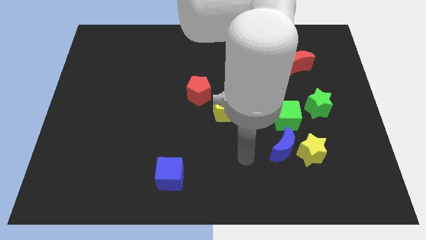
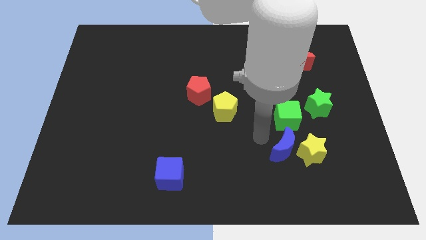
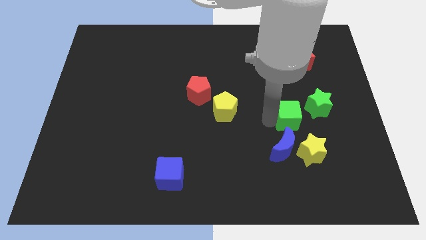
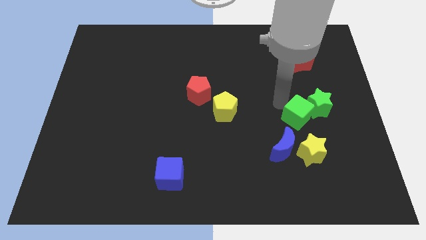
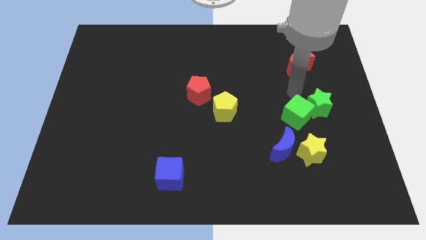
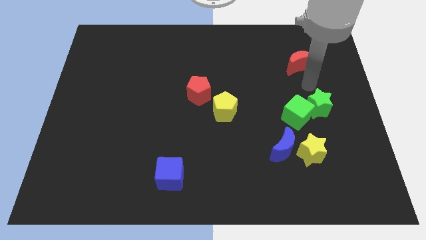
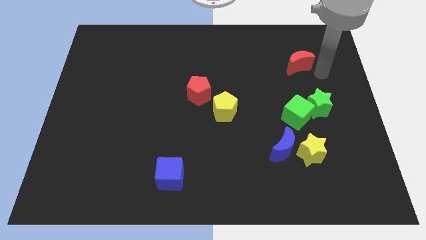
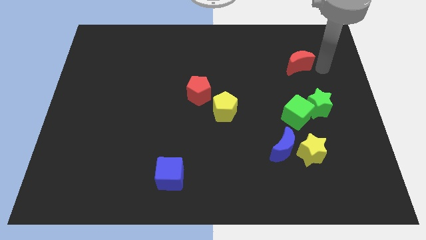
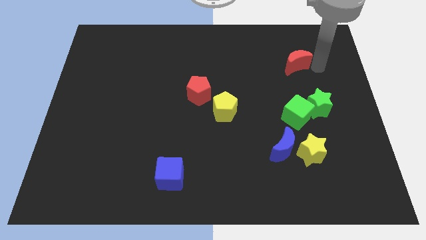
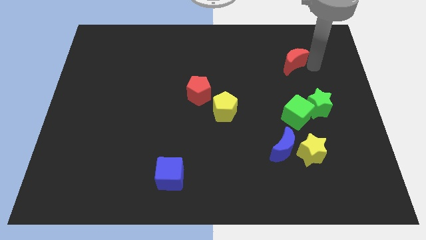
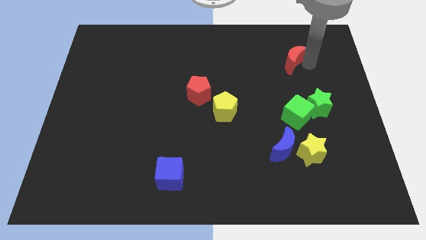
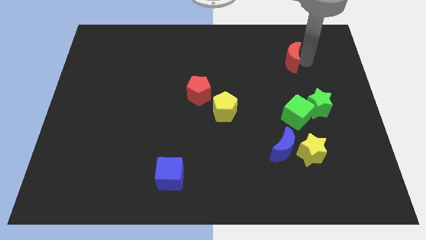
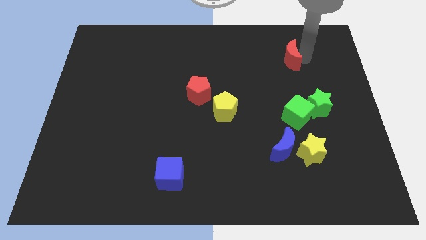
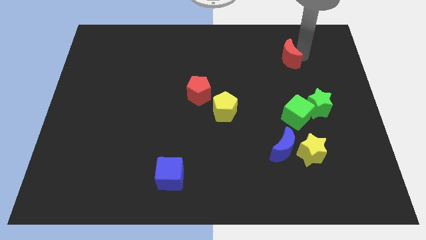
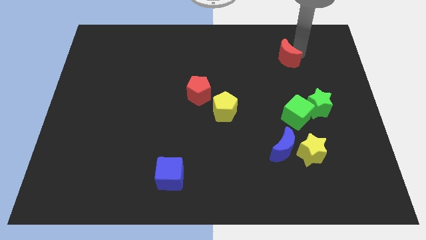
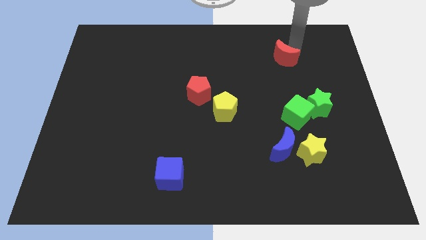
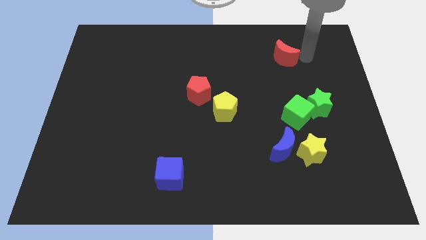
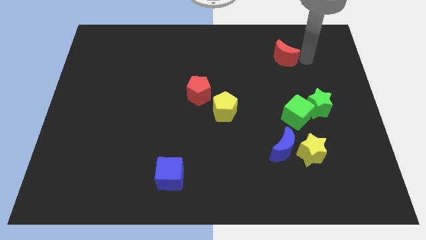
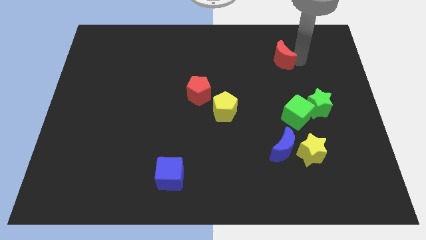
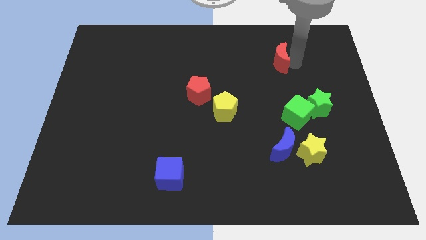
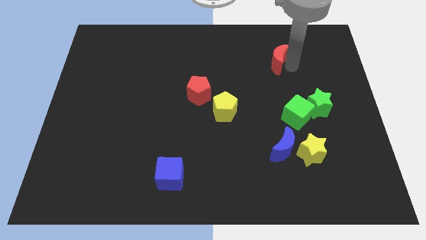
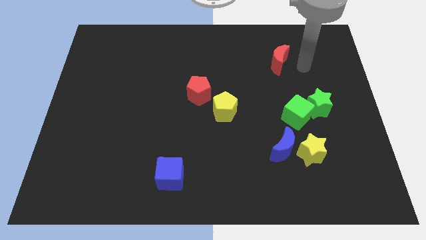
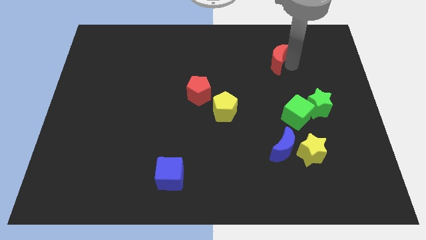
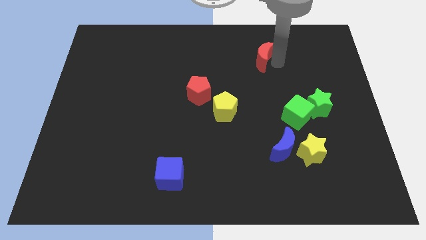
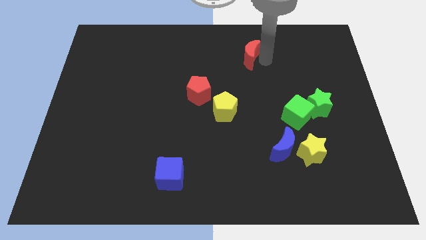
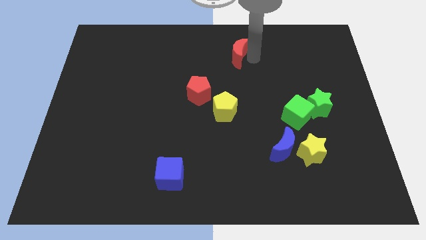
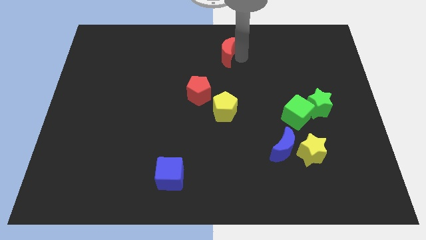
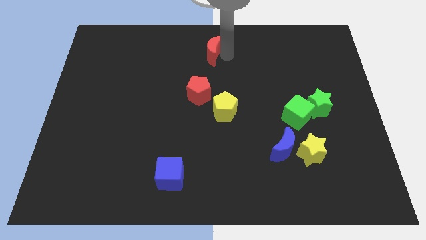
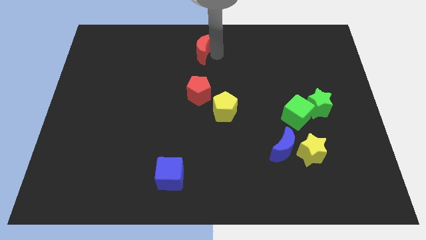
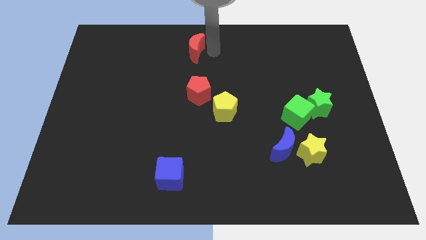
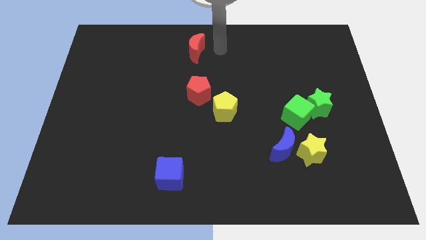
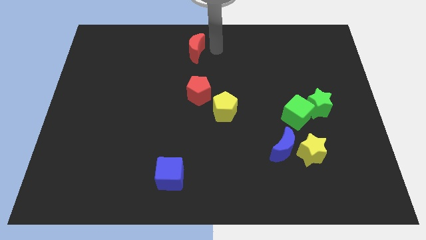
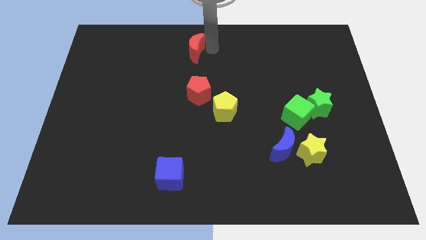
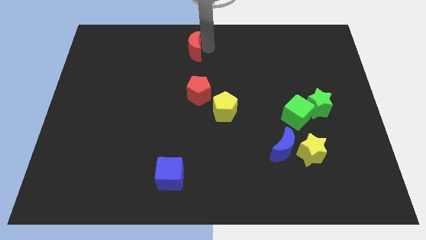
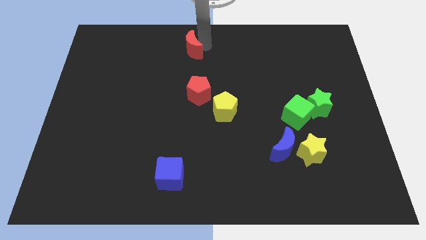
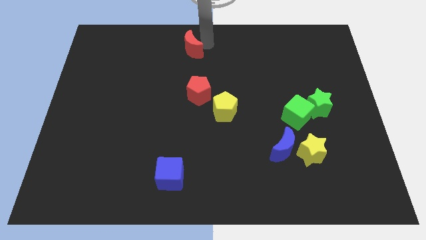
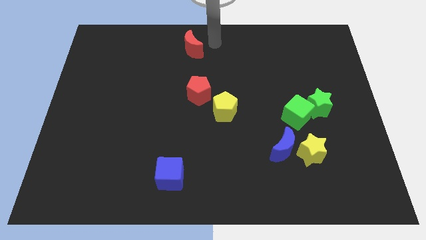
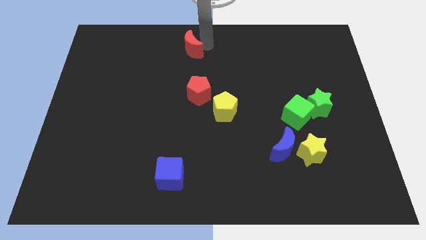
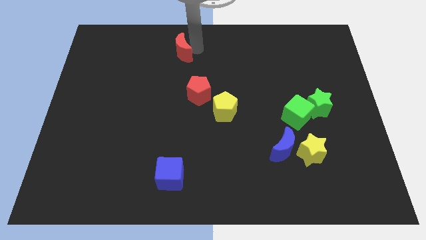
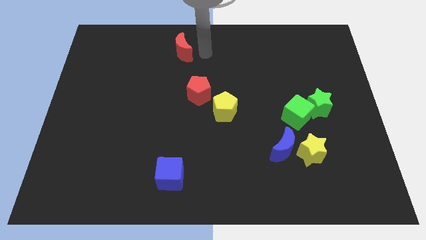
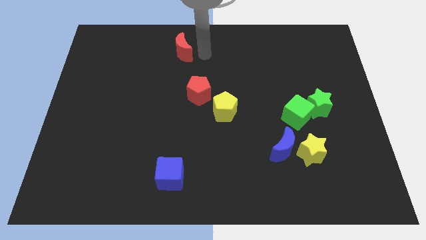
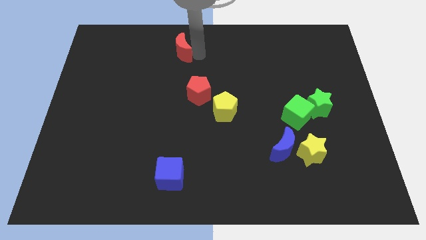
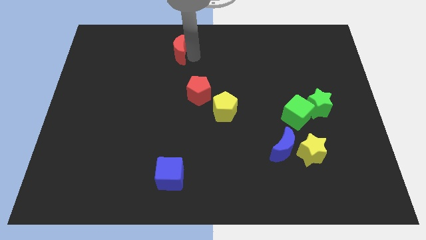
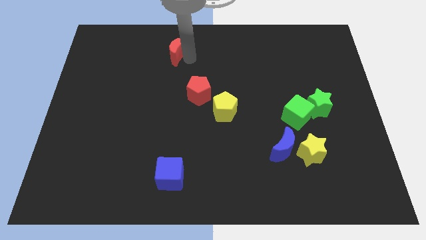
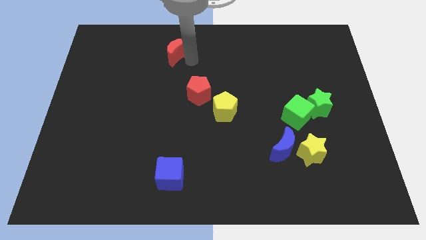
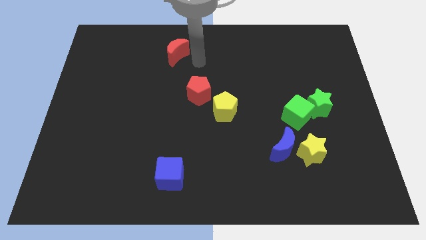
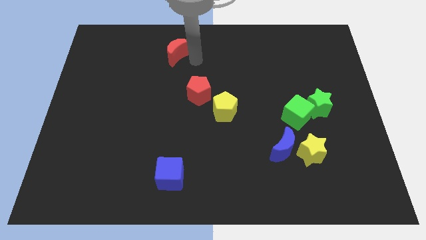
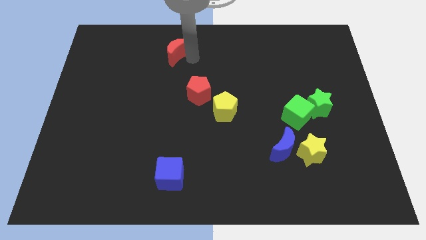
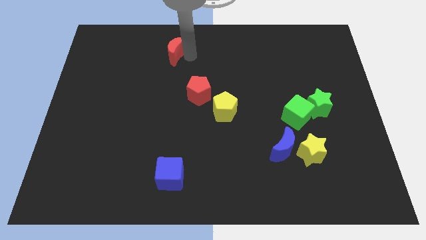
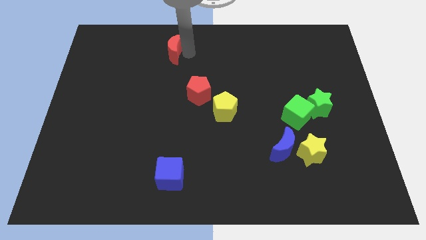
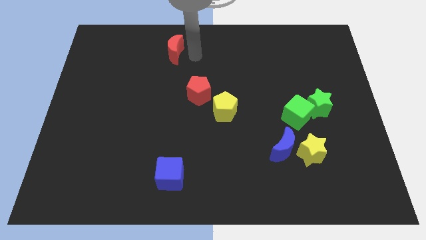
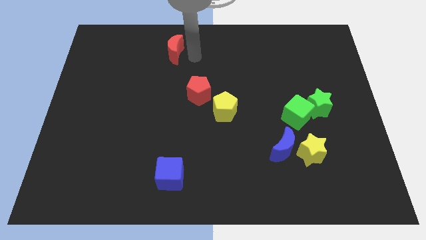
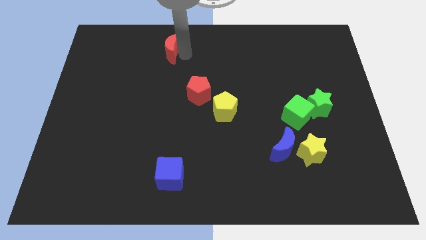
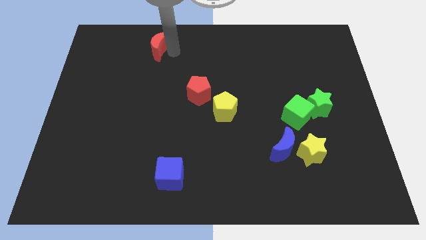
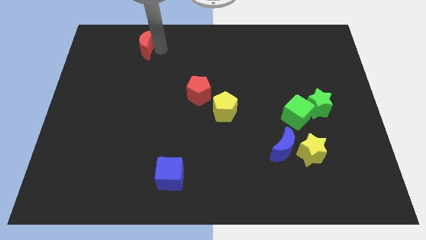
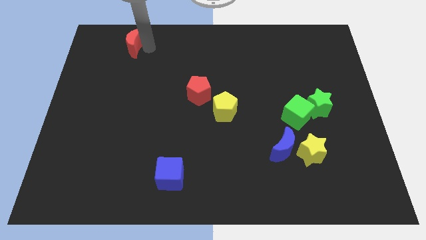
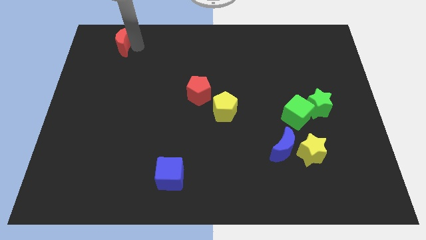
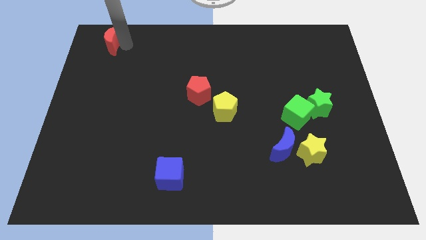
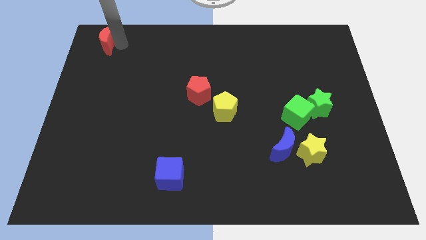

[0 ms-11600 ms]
slide the red moon to the upper left corner
